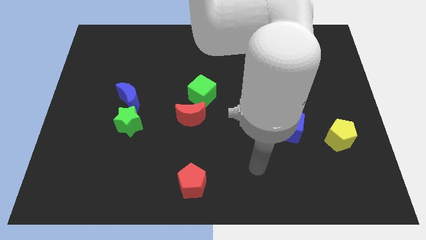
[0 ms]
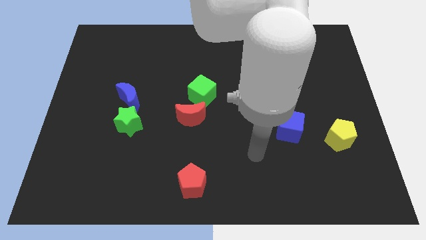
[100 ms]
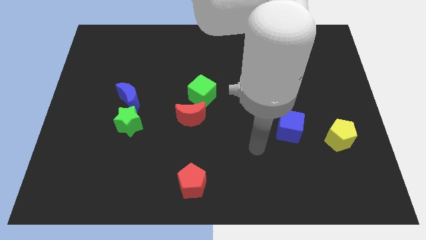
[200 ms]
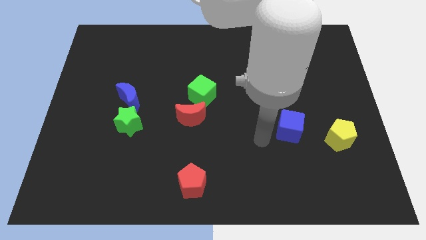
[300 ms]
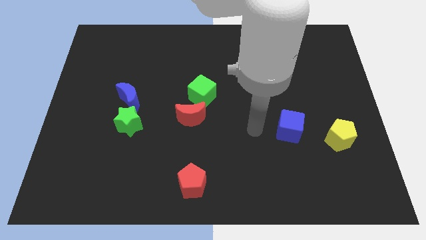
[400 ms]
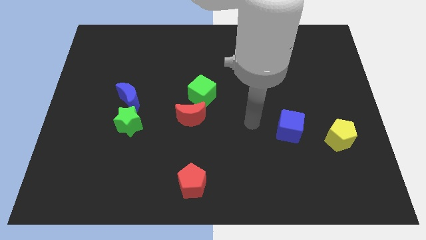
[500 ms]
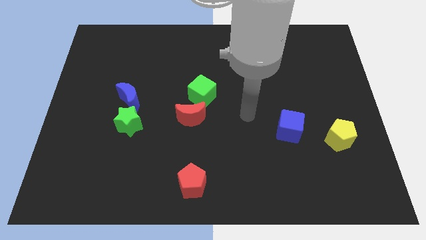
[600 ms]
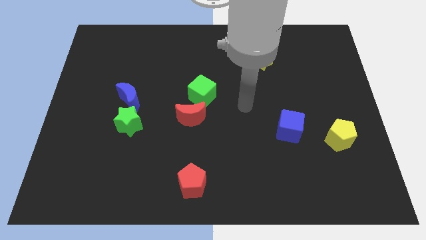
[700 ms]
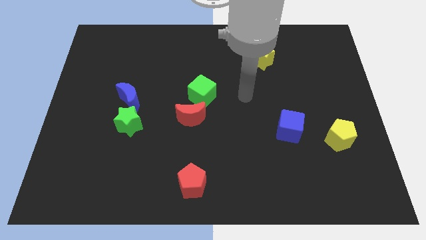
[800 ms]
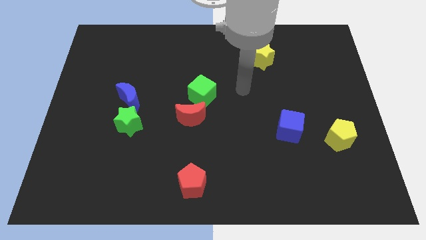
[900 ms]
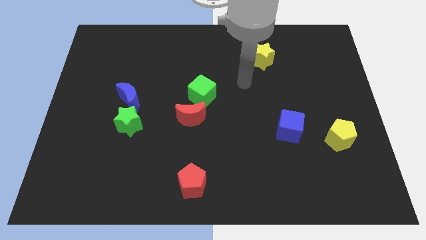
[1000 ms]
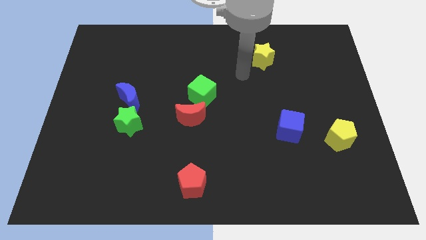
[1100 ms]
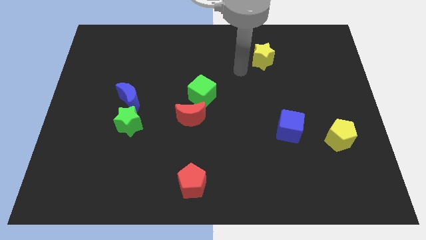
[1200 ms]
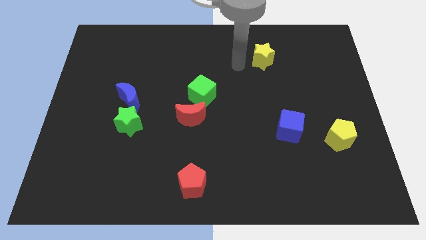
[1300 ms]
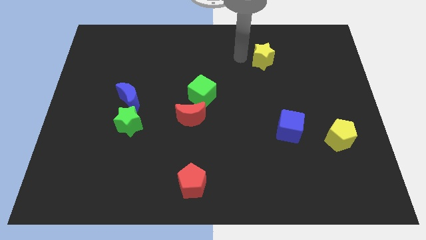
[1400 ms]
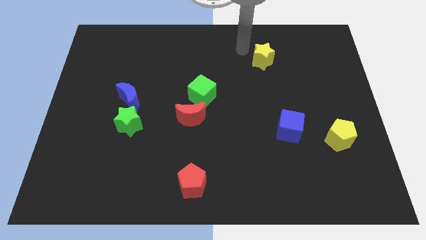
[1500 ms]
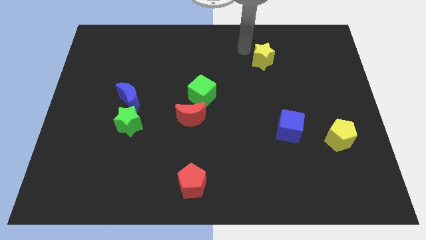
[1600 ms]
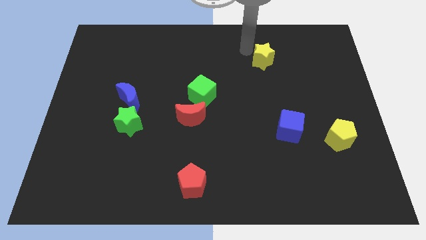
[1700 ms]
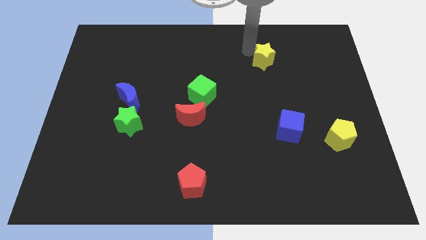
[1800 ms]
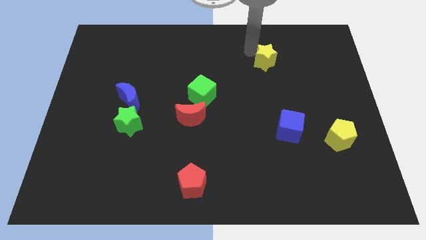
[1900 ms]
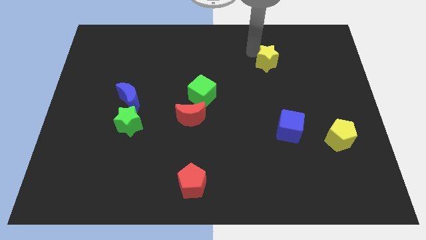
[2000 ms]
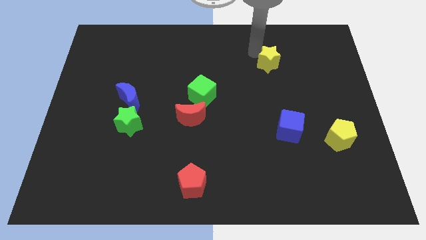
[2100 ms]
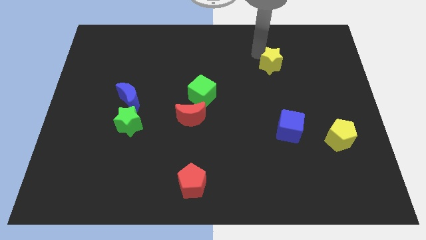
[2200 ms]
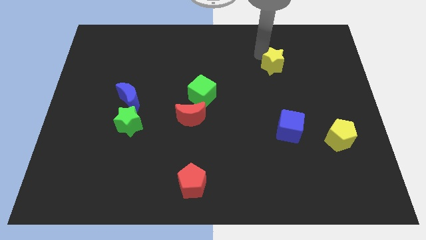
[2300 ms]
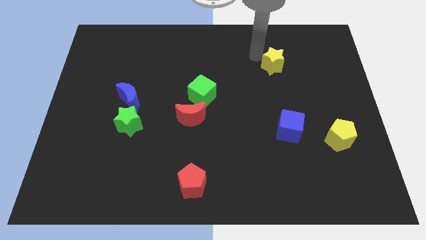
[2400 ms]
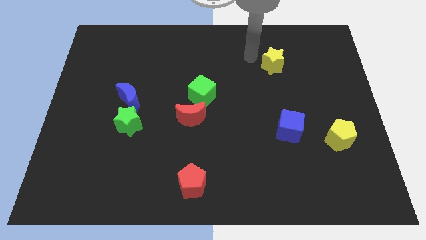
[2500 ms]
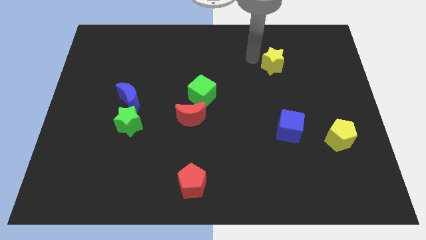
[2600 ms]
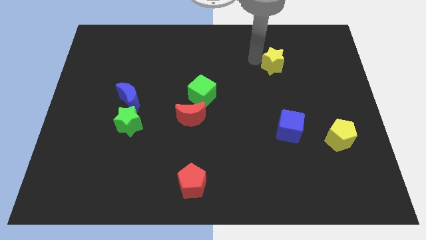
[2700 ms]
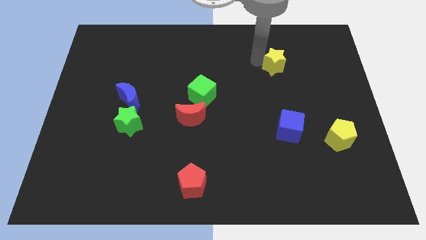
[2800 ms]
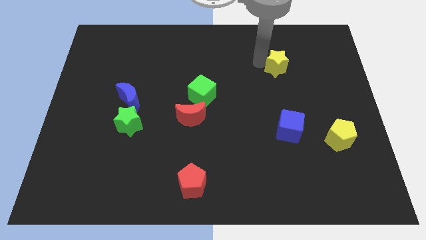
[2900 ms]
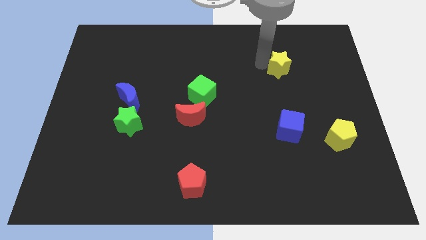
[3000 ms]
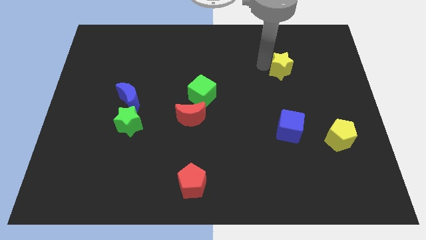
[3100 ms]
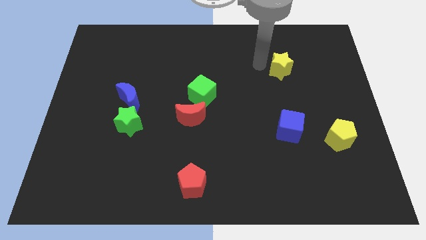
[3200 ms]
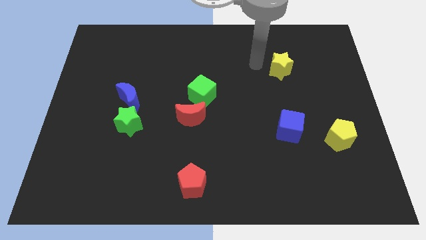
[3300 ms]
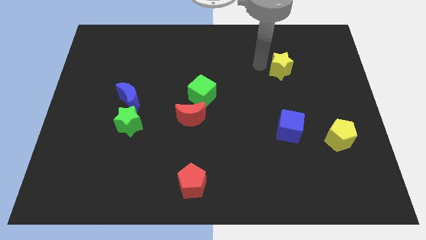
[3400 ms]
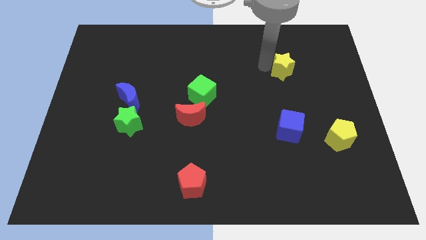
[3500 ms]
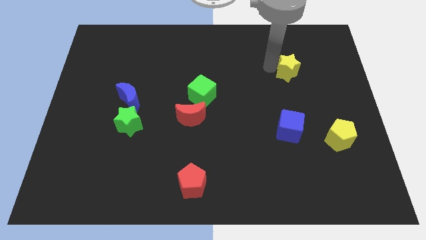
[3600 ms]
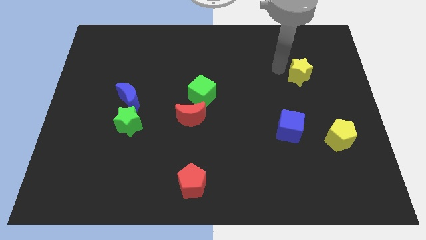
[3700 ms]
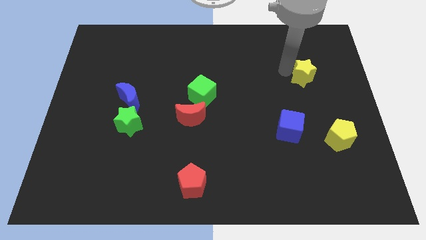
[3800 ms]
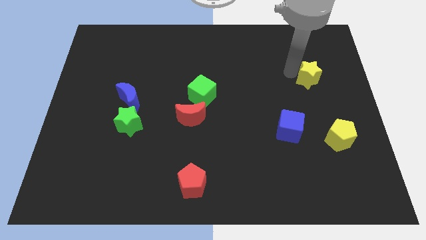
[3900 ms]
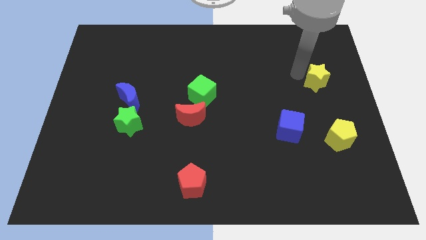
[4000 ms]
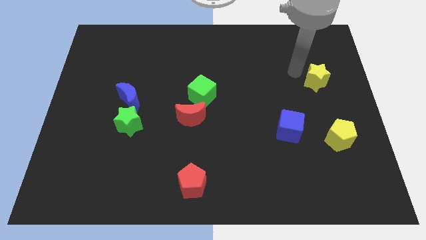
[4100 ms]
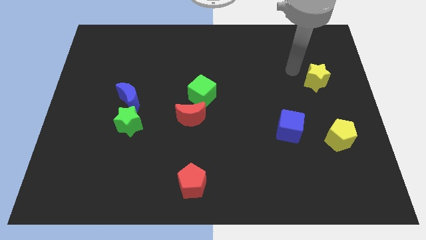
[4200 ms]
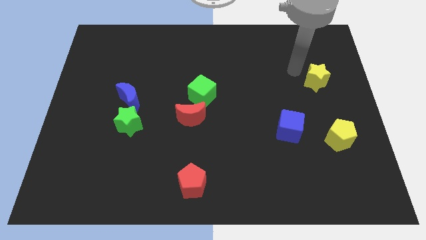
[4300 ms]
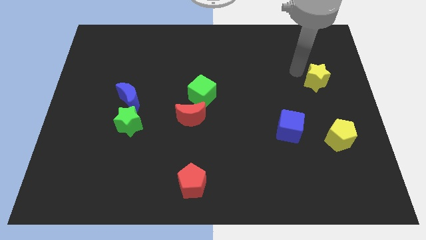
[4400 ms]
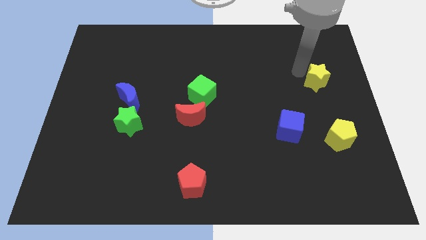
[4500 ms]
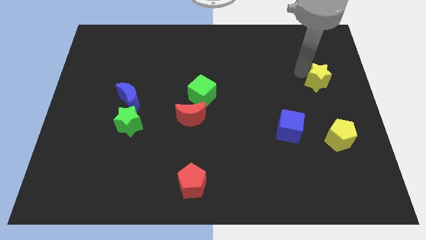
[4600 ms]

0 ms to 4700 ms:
slide the yellow star to the center right

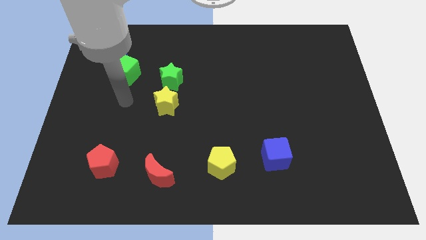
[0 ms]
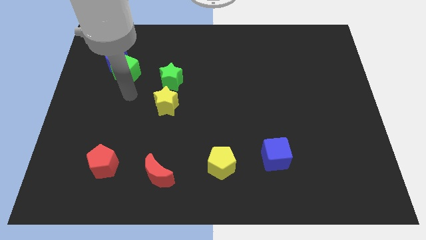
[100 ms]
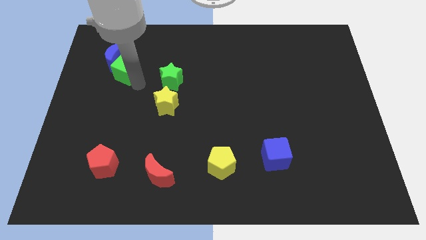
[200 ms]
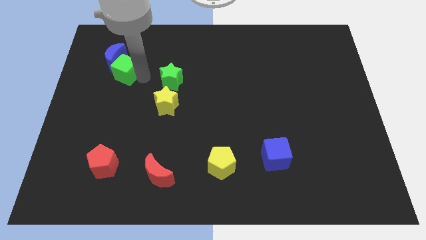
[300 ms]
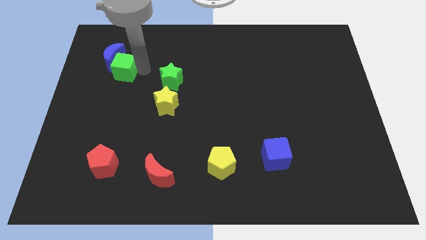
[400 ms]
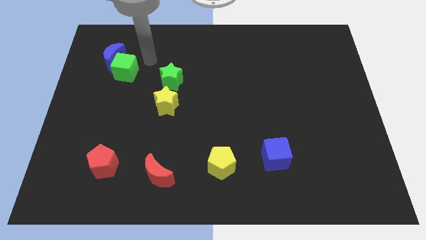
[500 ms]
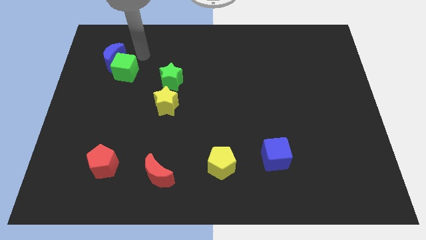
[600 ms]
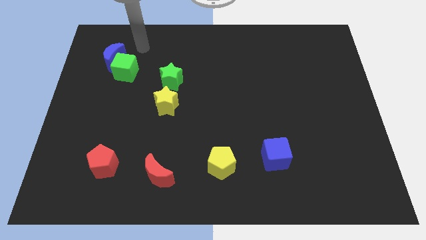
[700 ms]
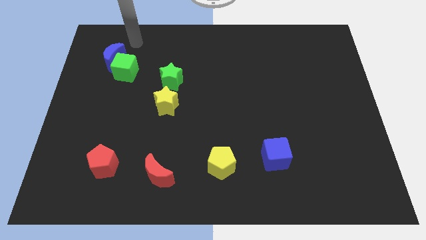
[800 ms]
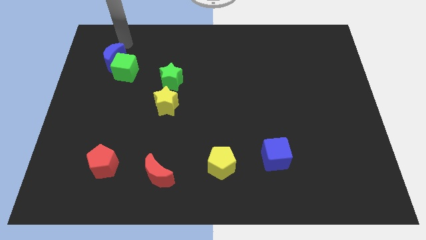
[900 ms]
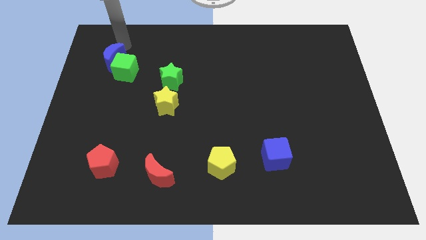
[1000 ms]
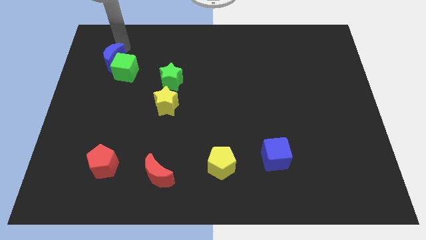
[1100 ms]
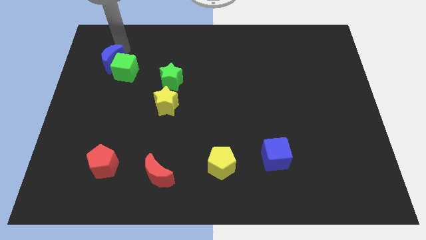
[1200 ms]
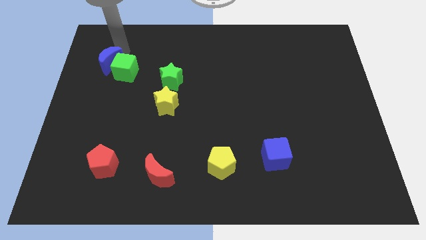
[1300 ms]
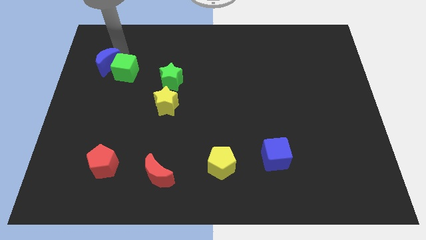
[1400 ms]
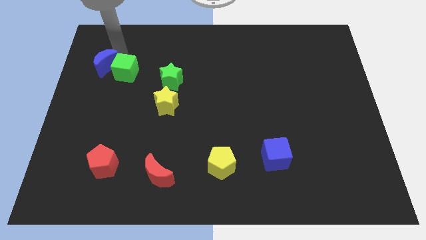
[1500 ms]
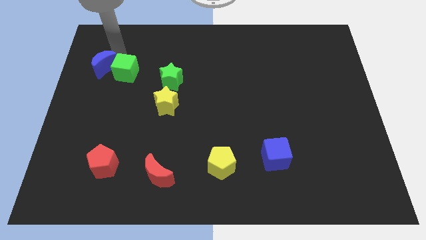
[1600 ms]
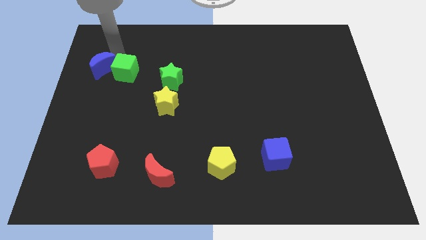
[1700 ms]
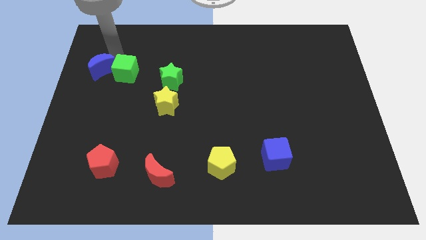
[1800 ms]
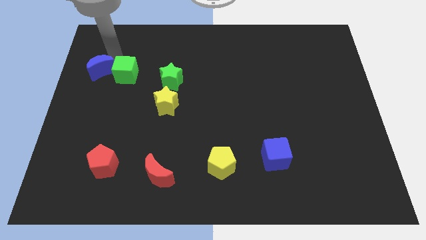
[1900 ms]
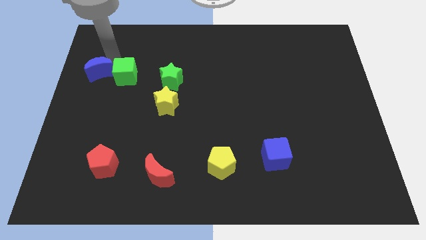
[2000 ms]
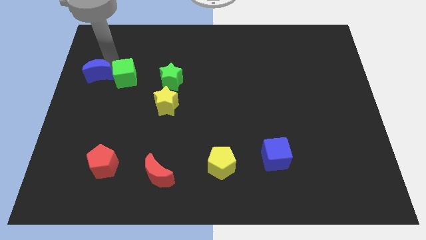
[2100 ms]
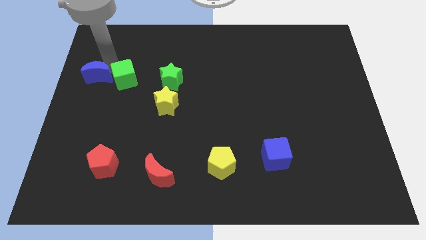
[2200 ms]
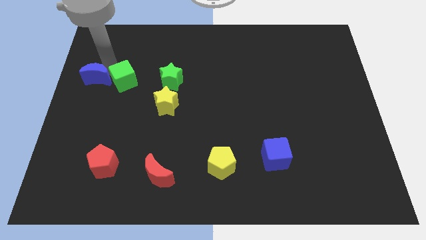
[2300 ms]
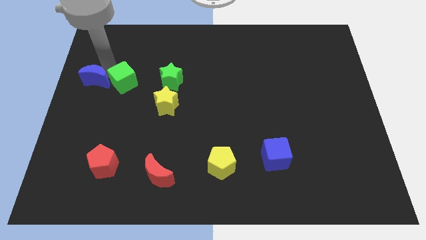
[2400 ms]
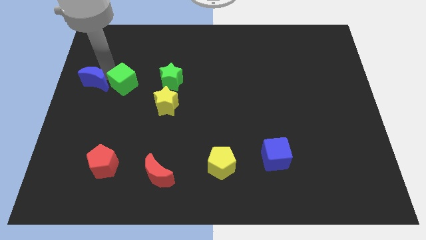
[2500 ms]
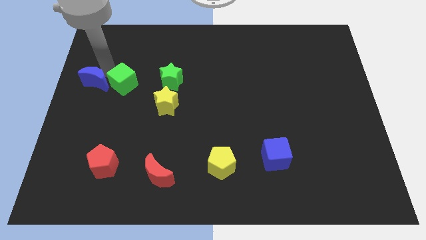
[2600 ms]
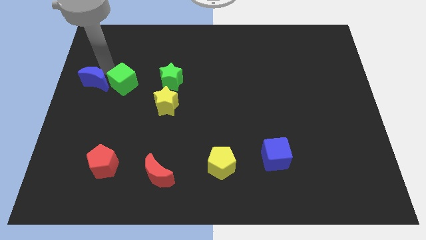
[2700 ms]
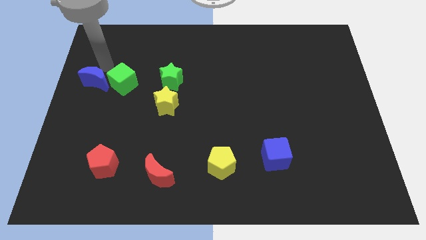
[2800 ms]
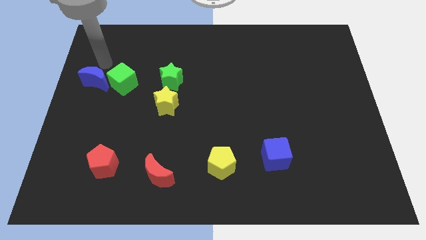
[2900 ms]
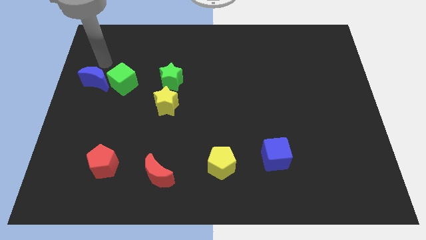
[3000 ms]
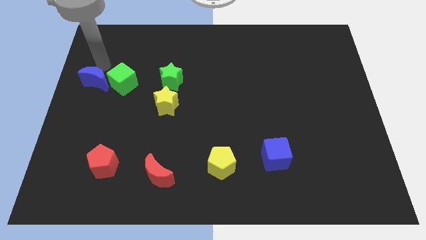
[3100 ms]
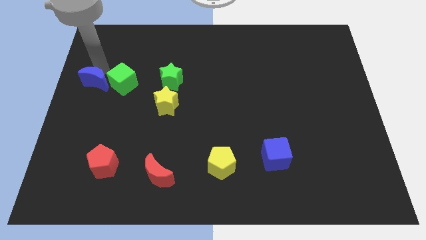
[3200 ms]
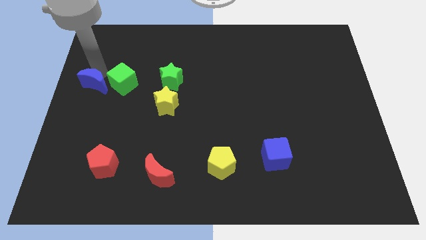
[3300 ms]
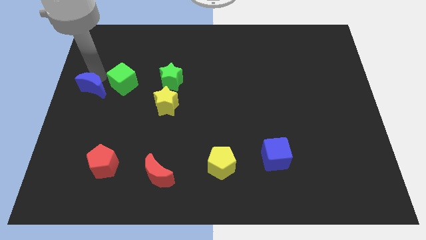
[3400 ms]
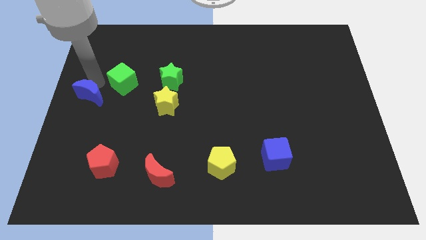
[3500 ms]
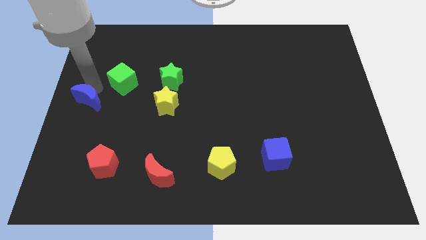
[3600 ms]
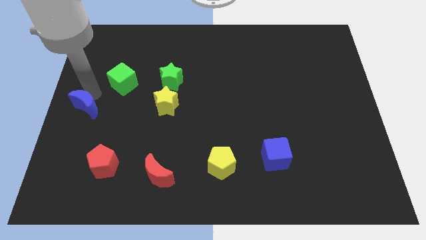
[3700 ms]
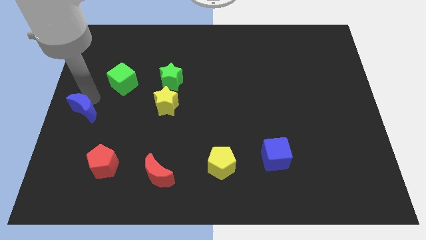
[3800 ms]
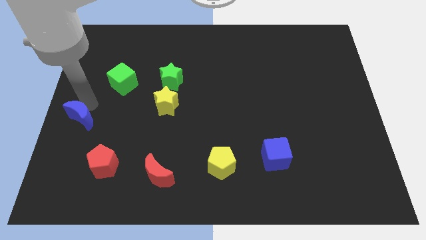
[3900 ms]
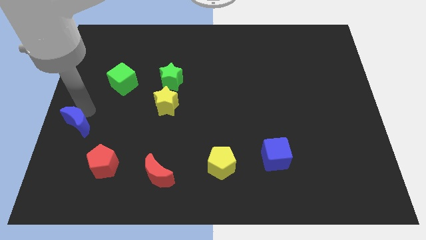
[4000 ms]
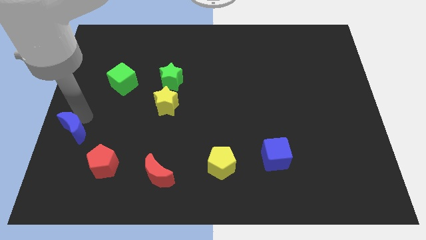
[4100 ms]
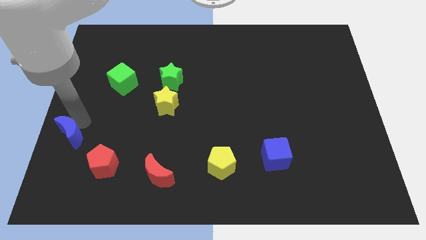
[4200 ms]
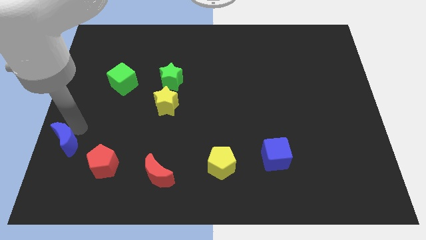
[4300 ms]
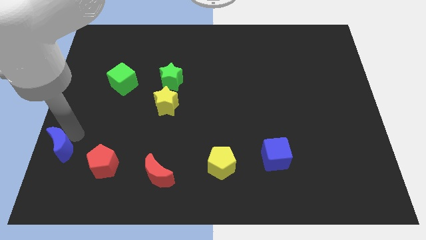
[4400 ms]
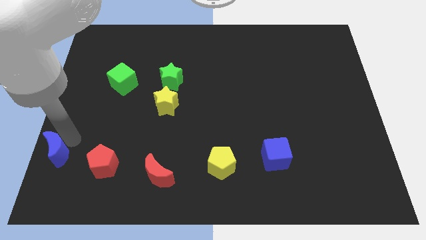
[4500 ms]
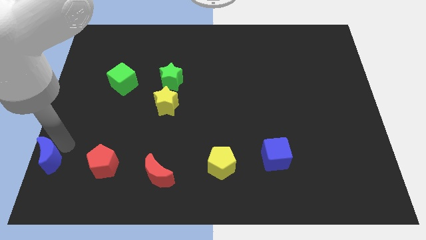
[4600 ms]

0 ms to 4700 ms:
slide the blue moon to the bottom left corner
